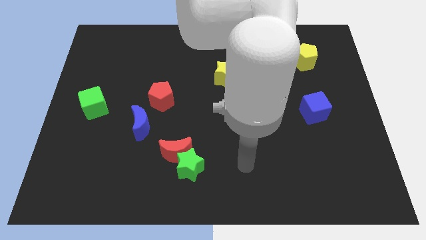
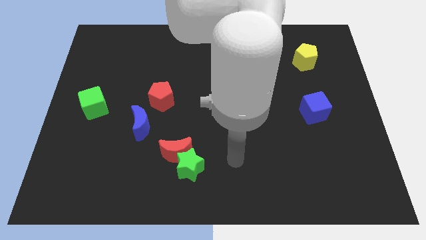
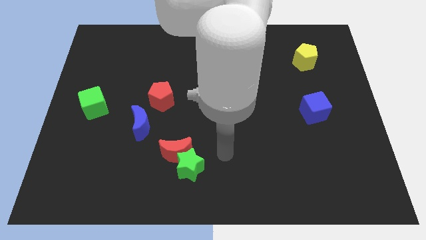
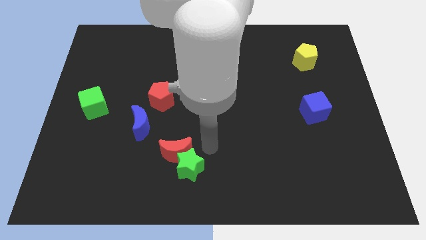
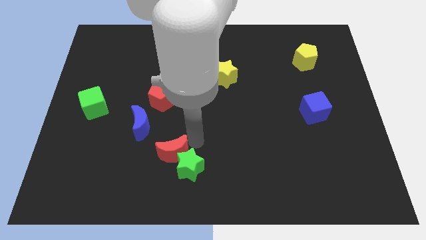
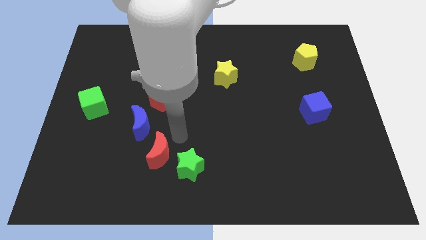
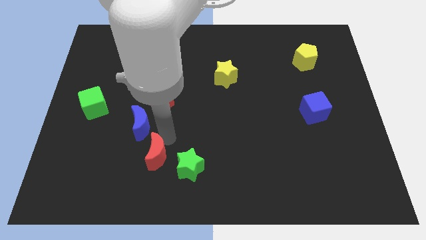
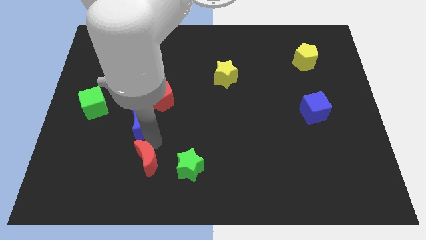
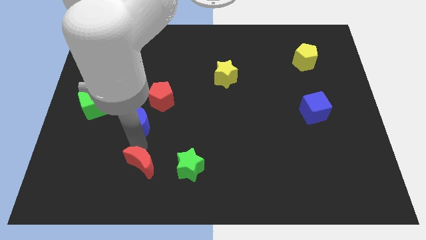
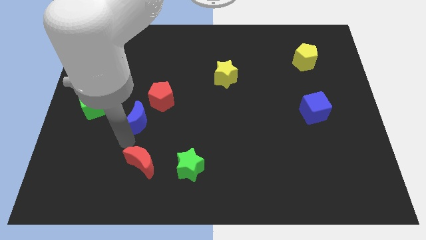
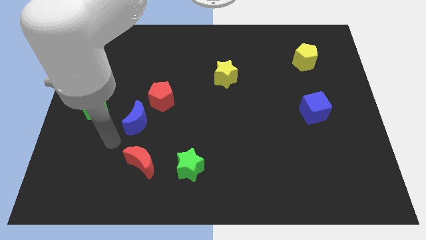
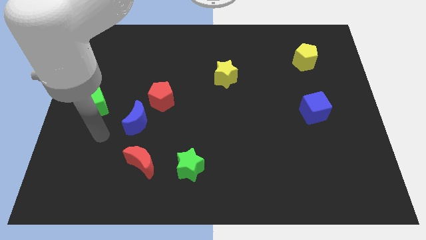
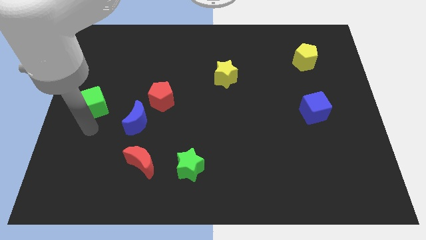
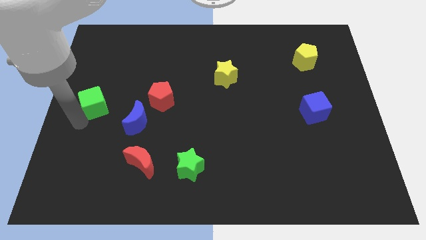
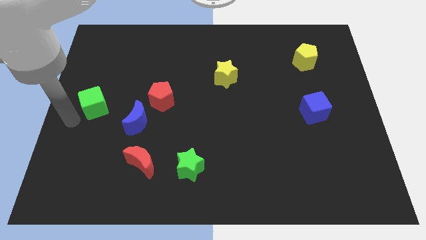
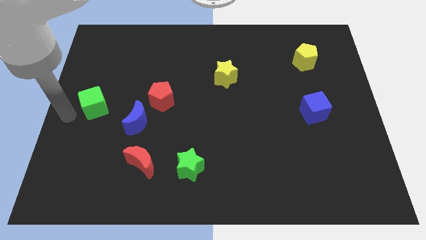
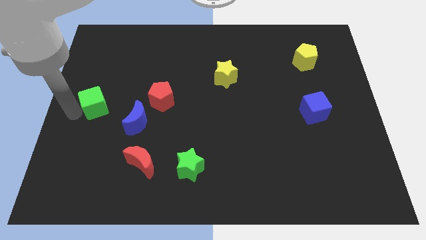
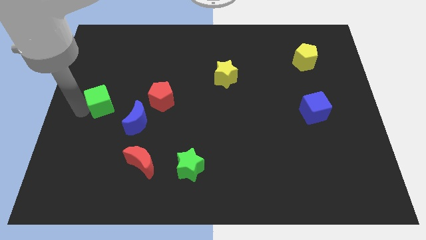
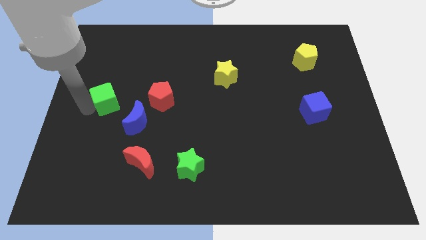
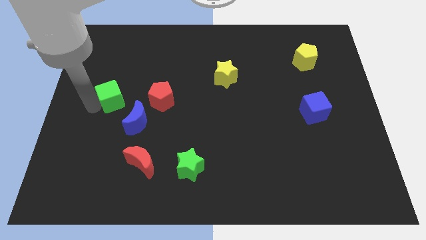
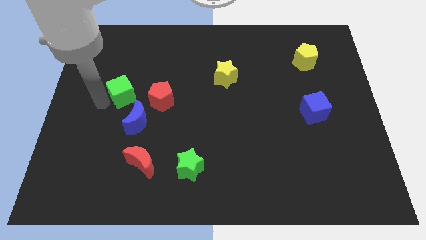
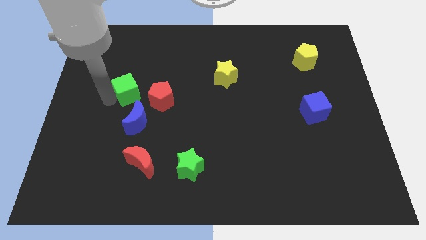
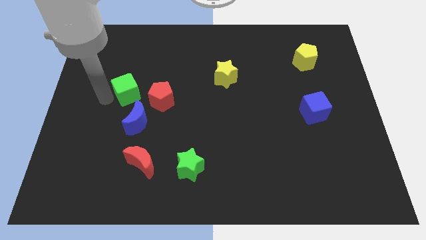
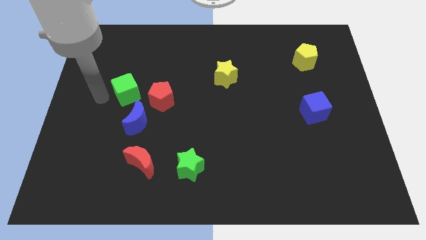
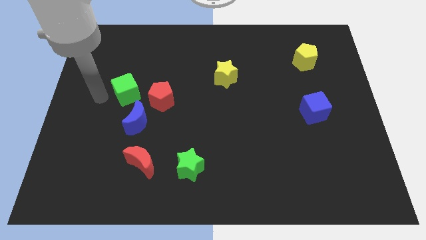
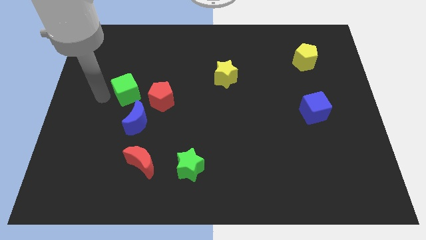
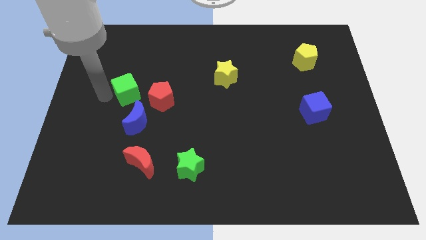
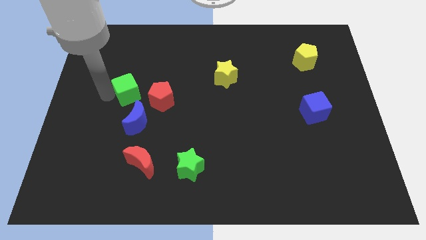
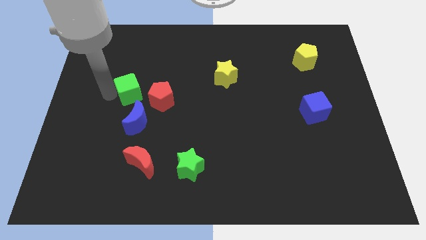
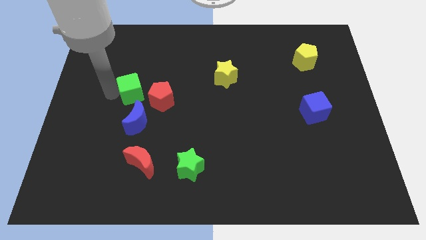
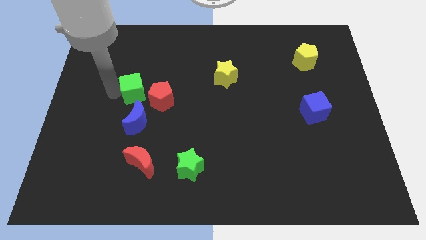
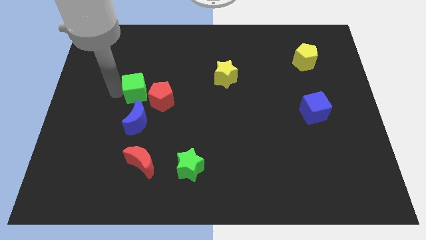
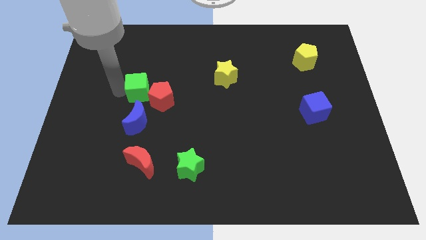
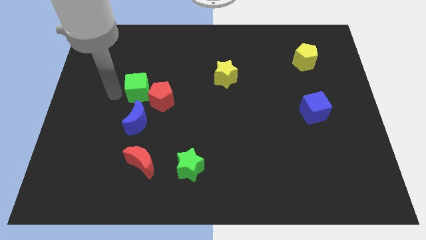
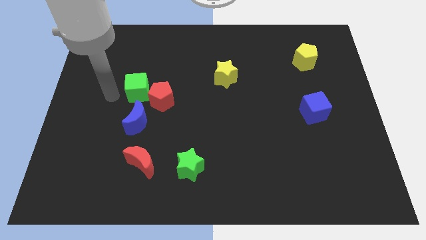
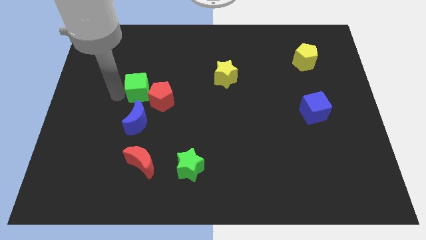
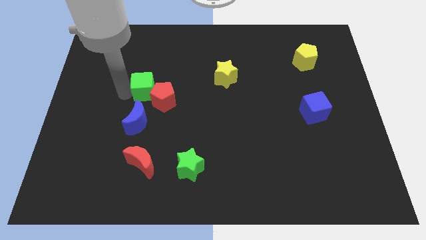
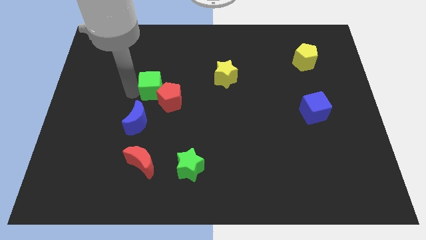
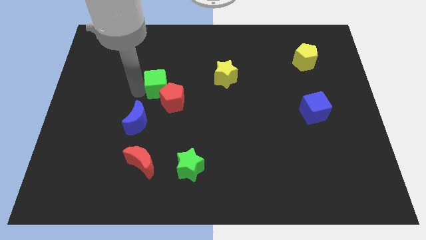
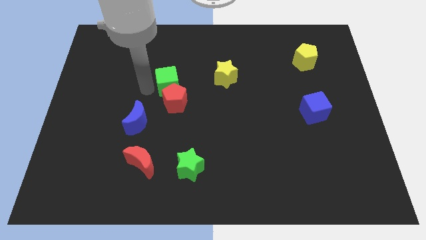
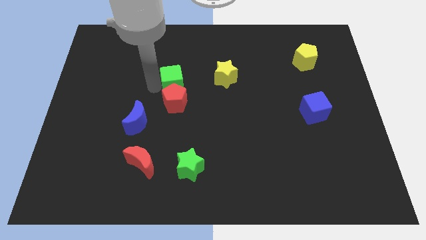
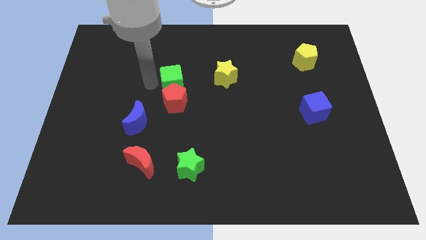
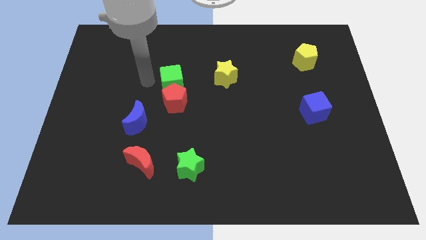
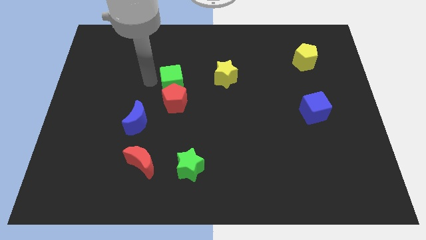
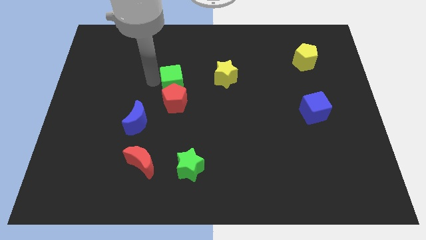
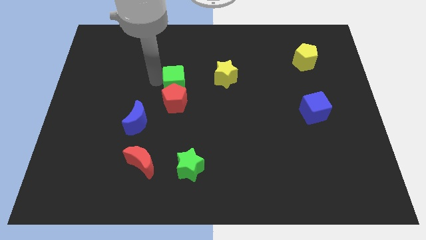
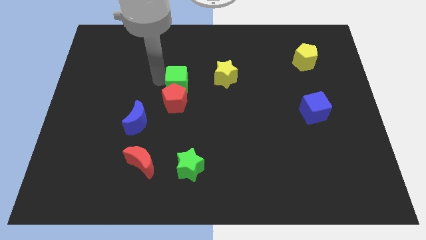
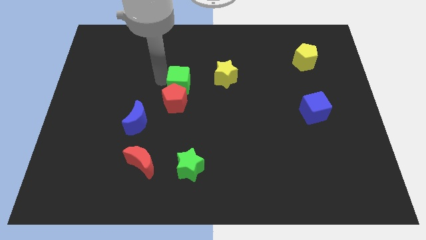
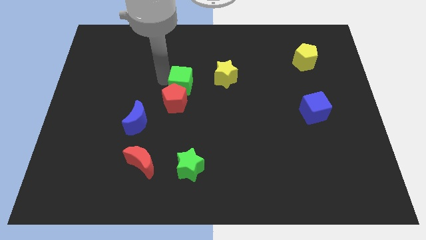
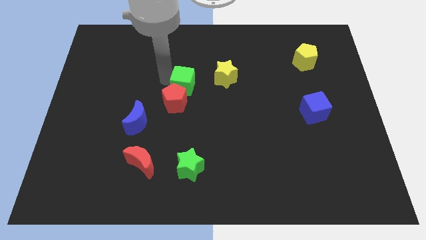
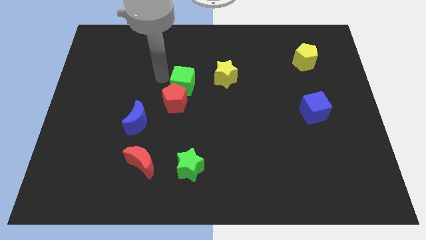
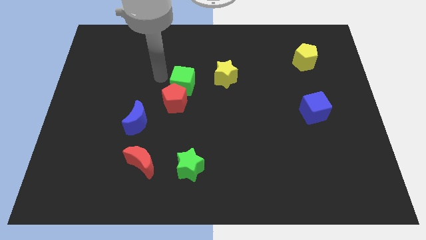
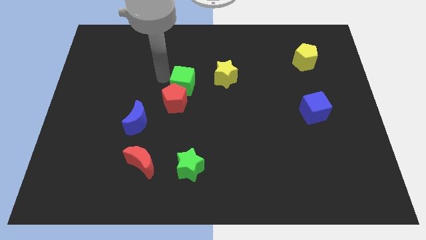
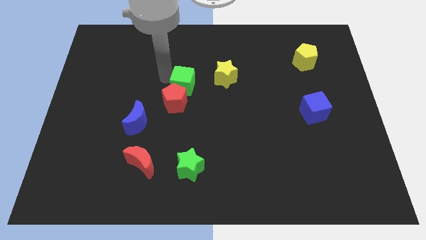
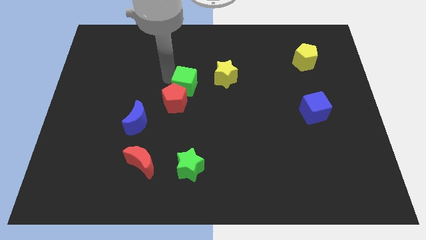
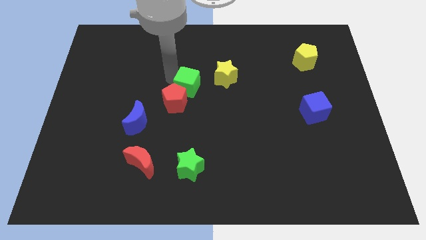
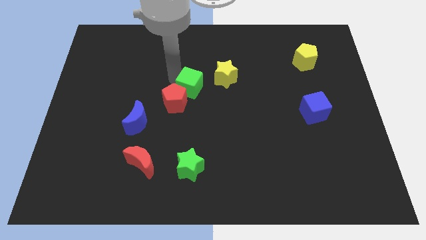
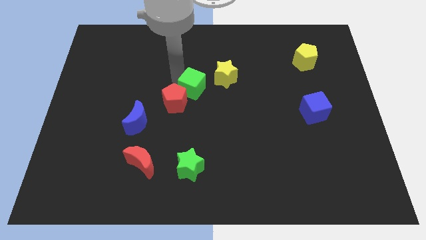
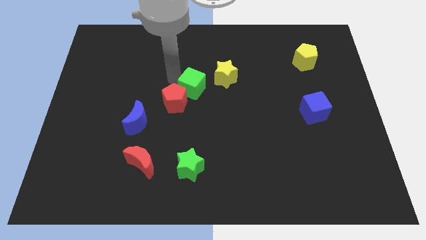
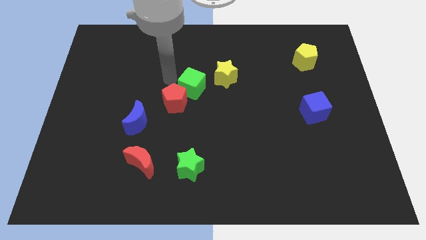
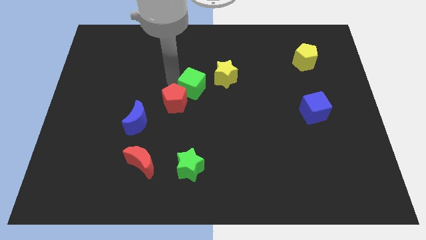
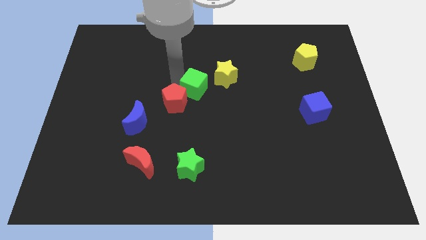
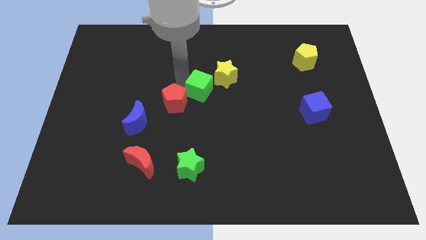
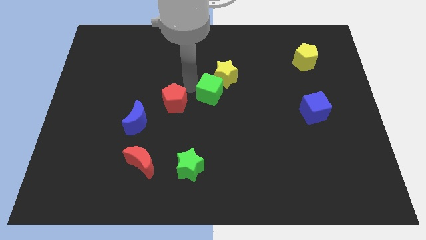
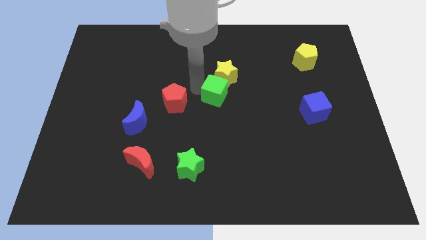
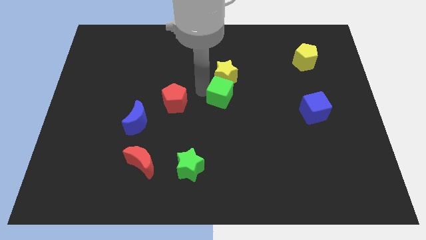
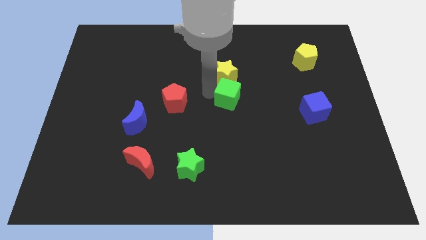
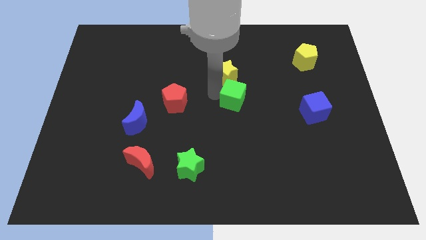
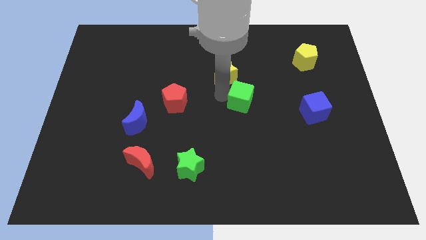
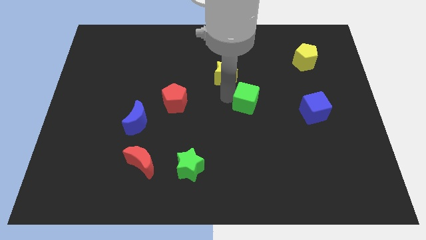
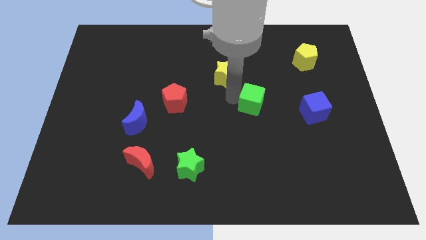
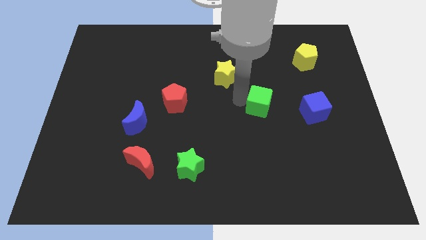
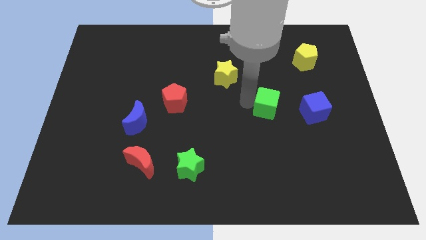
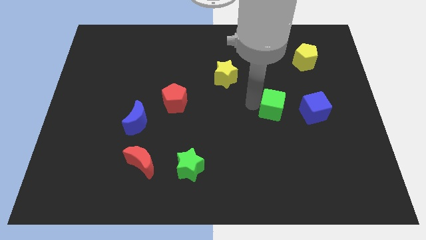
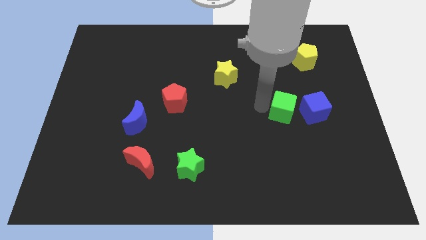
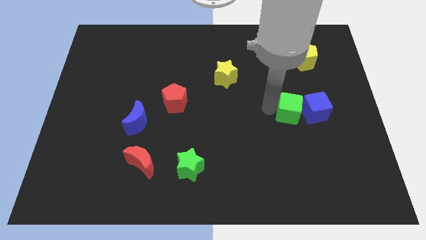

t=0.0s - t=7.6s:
push the green cube towards the blue cube
